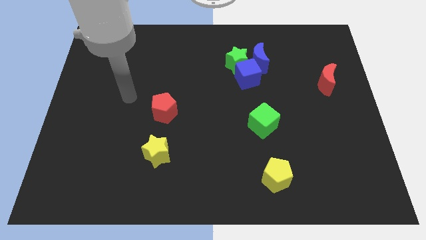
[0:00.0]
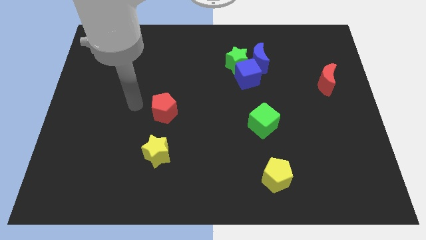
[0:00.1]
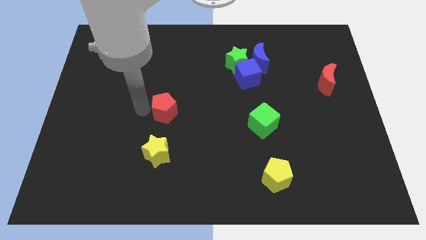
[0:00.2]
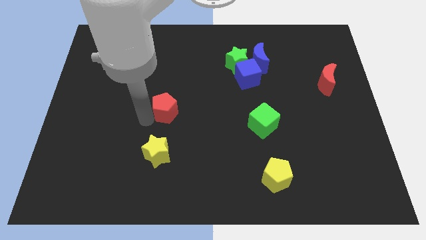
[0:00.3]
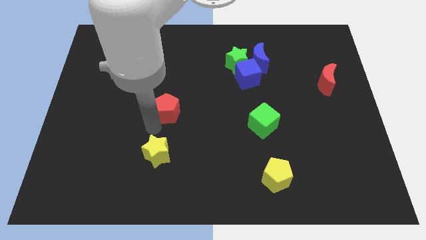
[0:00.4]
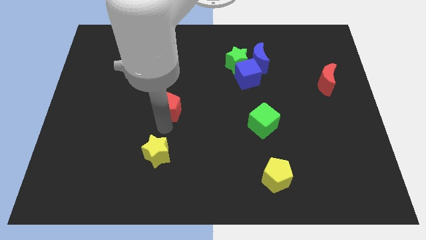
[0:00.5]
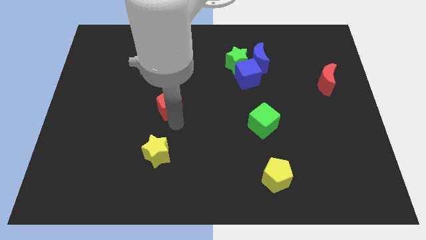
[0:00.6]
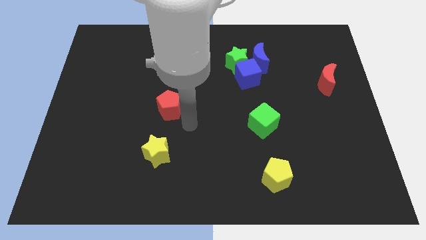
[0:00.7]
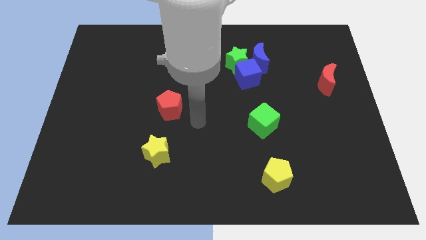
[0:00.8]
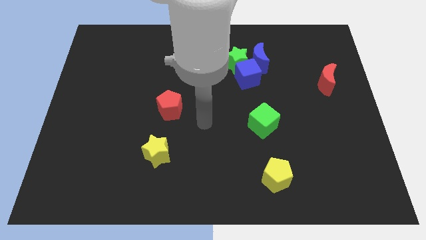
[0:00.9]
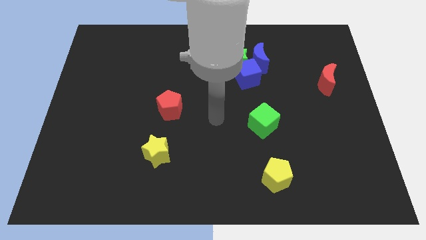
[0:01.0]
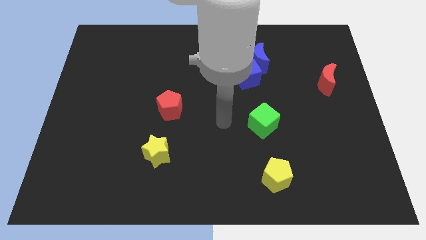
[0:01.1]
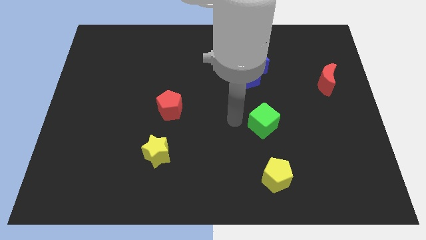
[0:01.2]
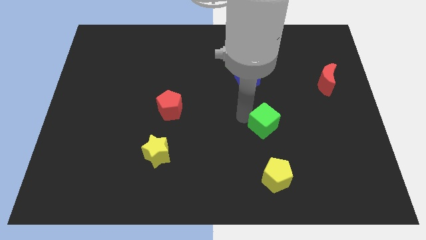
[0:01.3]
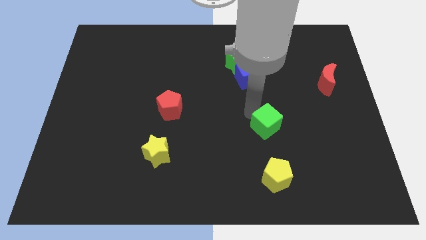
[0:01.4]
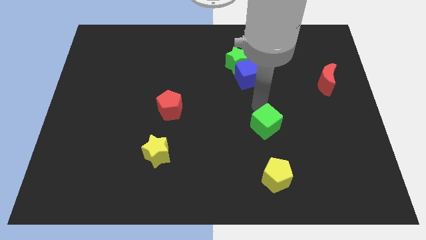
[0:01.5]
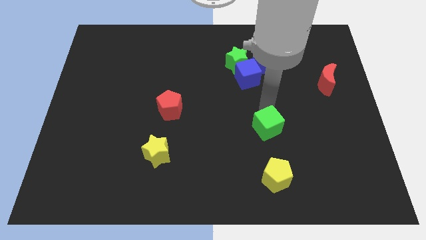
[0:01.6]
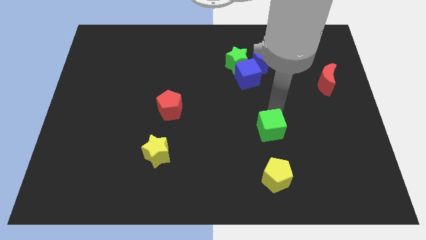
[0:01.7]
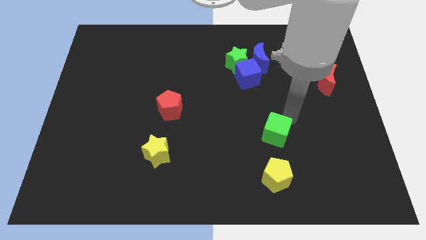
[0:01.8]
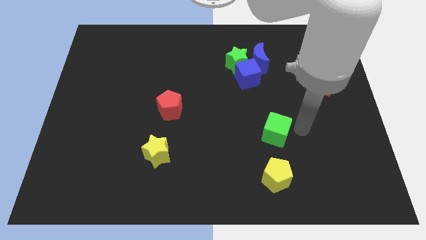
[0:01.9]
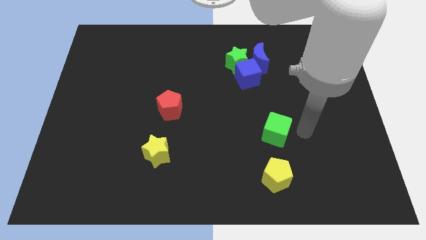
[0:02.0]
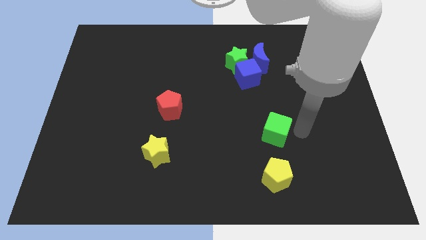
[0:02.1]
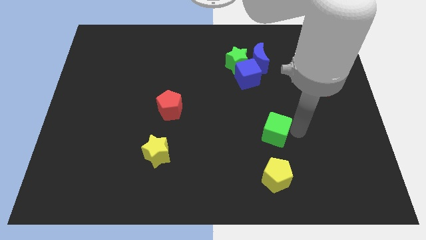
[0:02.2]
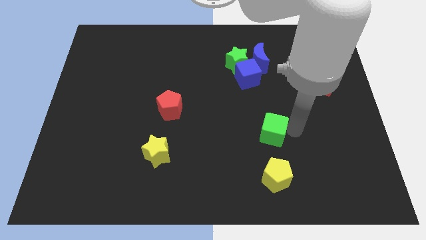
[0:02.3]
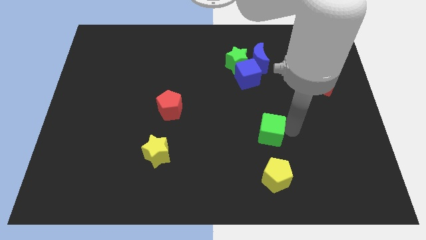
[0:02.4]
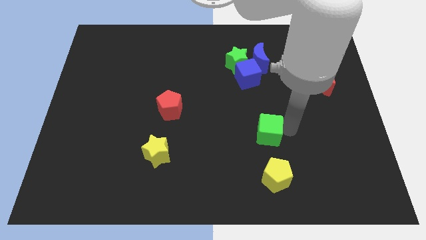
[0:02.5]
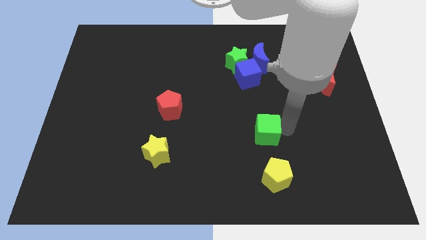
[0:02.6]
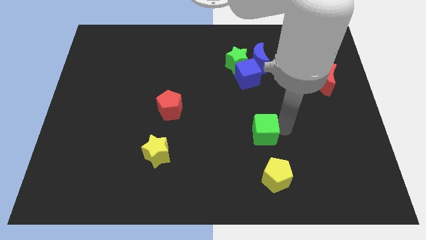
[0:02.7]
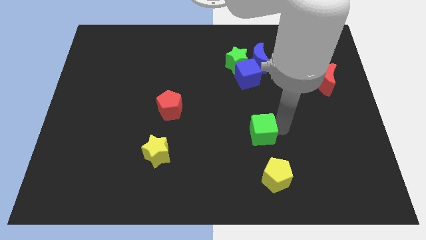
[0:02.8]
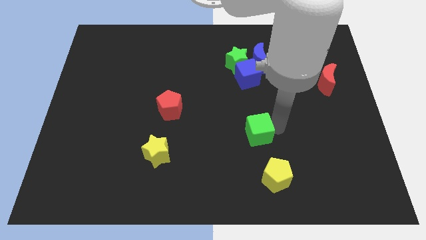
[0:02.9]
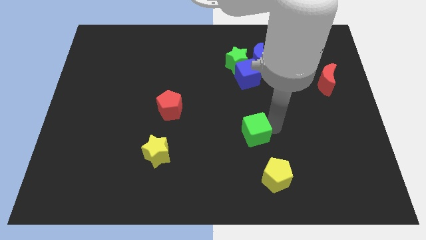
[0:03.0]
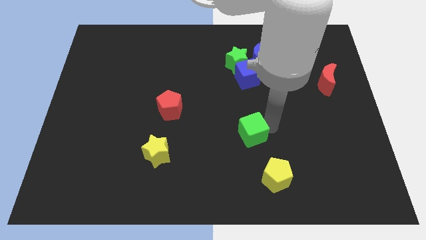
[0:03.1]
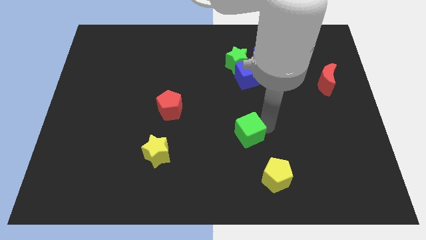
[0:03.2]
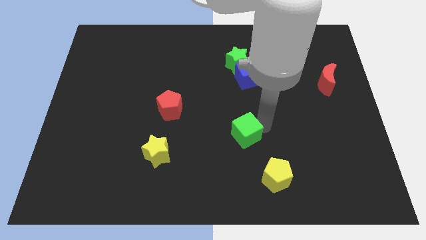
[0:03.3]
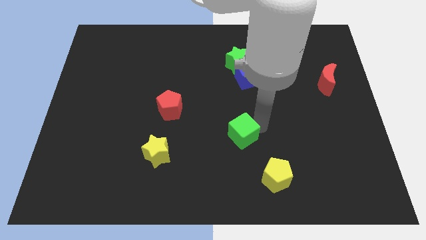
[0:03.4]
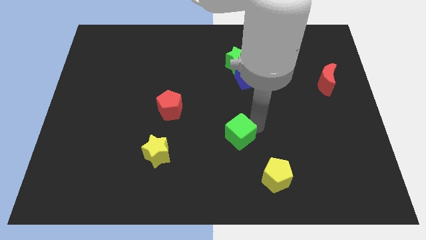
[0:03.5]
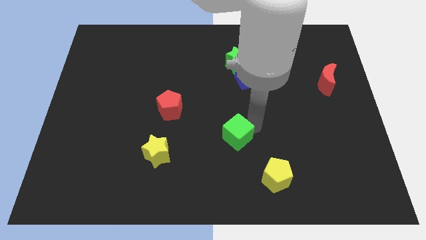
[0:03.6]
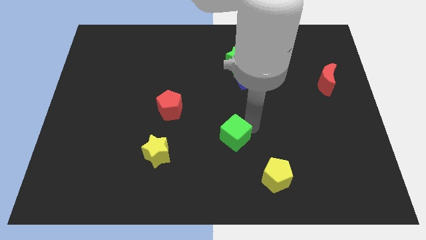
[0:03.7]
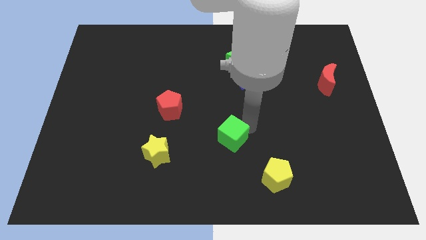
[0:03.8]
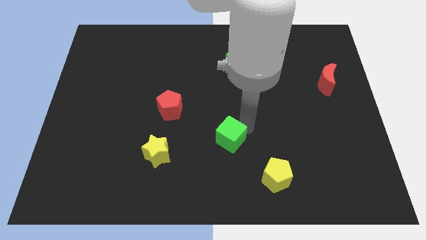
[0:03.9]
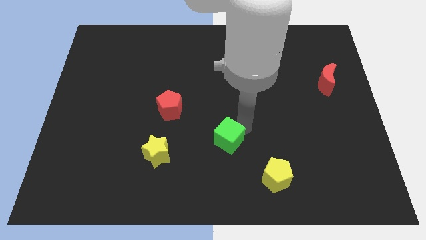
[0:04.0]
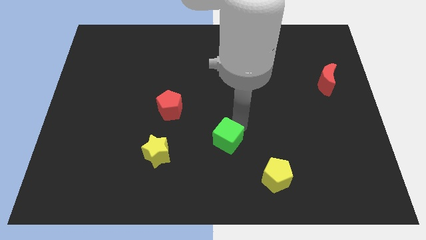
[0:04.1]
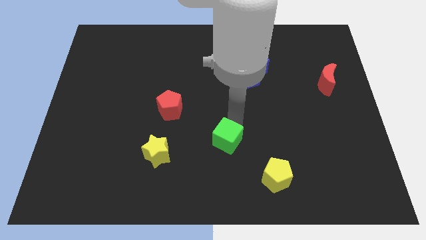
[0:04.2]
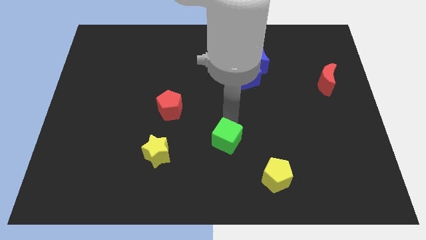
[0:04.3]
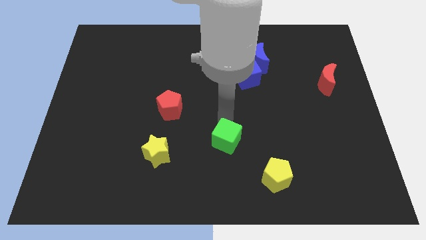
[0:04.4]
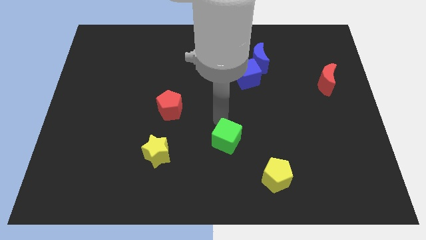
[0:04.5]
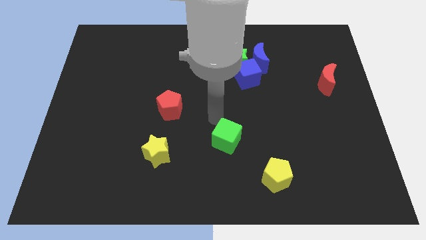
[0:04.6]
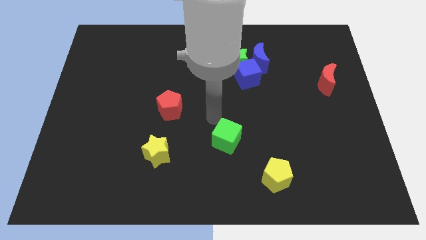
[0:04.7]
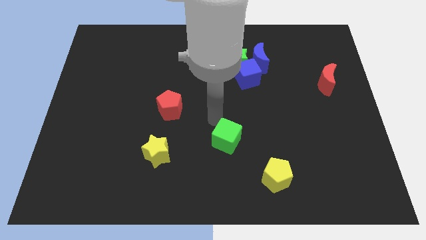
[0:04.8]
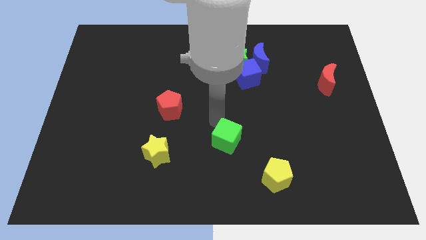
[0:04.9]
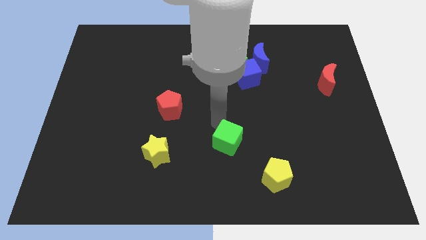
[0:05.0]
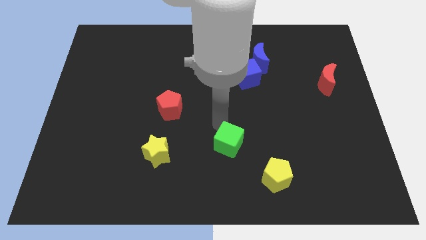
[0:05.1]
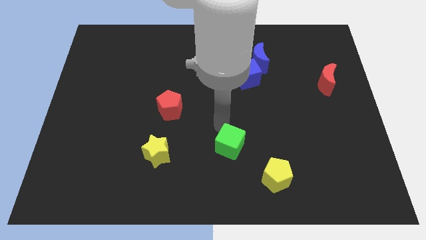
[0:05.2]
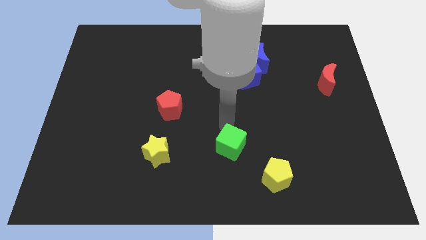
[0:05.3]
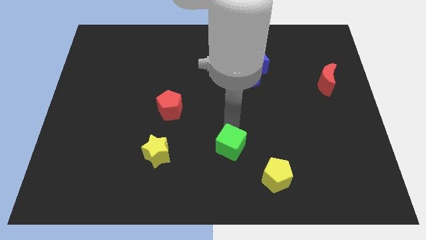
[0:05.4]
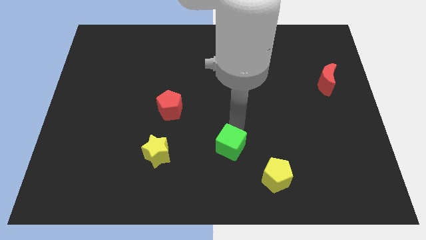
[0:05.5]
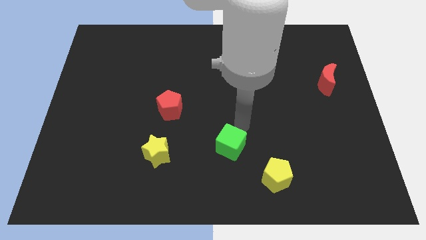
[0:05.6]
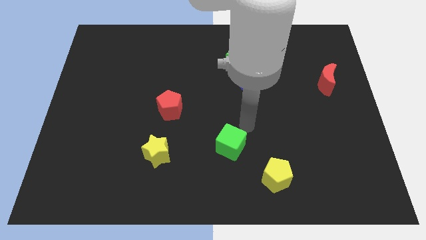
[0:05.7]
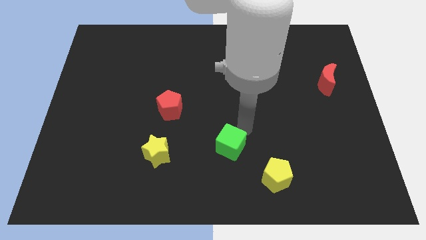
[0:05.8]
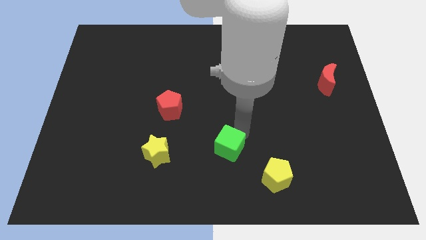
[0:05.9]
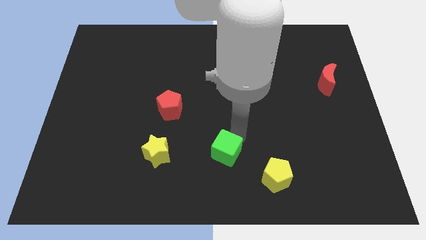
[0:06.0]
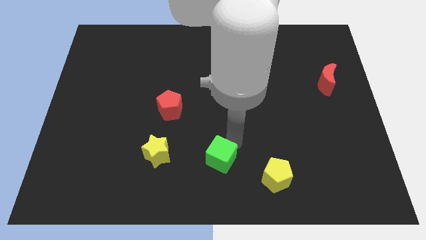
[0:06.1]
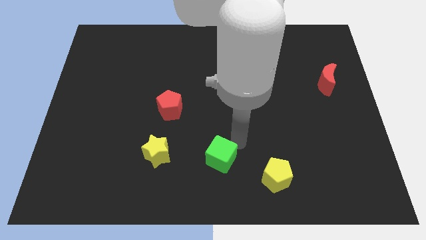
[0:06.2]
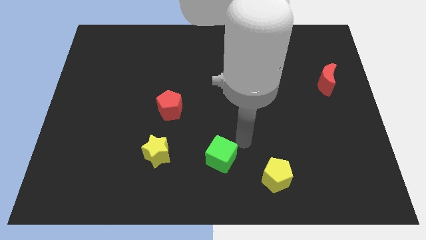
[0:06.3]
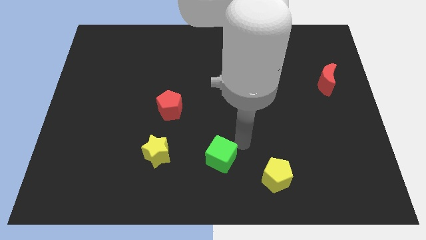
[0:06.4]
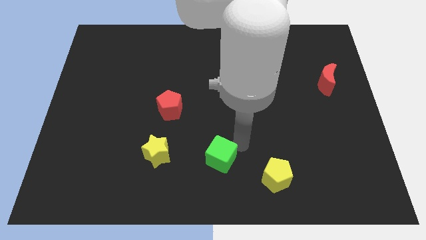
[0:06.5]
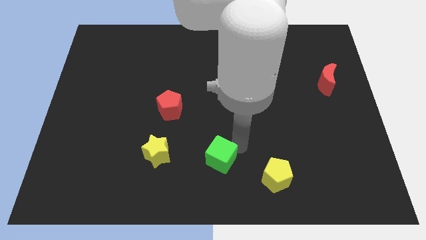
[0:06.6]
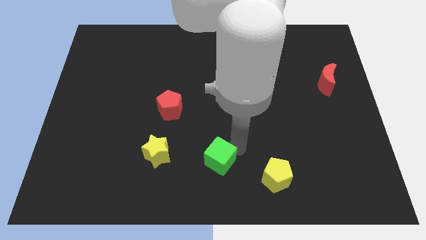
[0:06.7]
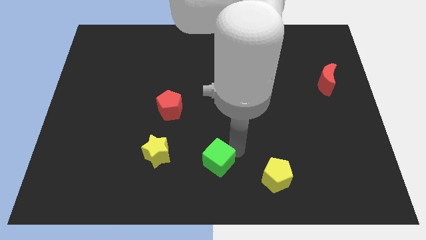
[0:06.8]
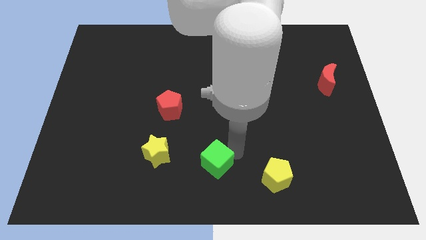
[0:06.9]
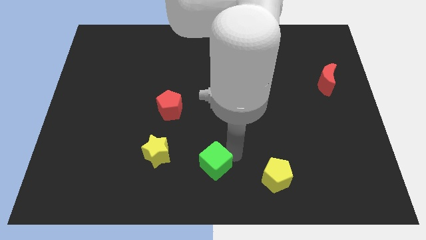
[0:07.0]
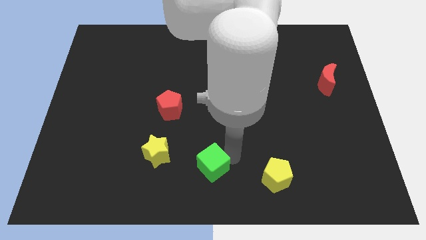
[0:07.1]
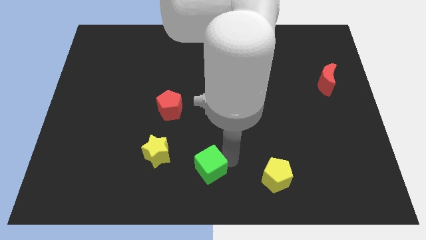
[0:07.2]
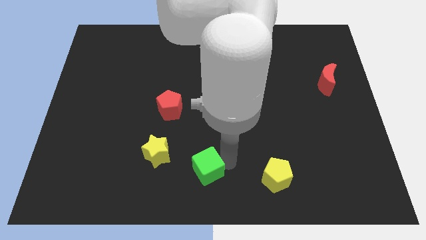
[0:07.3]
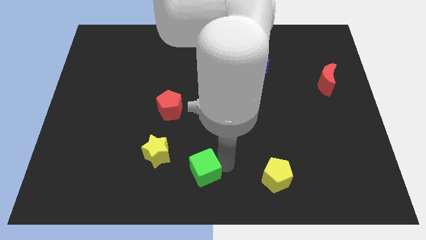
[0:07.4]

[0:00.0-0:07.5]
slide the green cube to the bottom right side of the yellow star

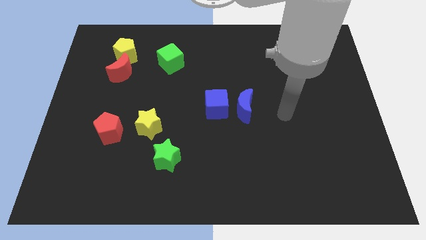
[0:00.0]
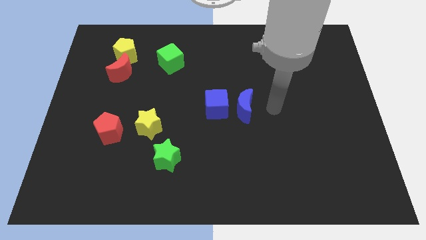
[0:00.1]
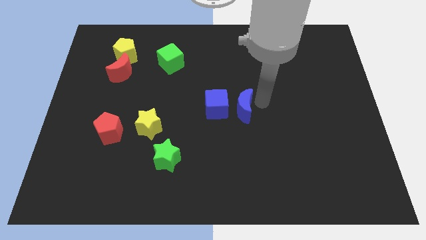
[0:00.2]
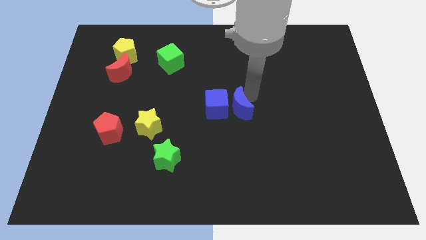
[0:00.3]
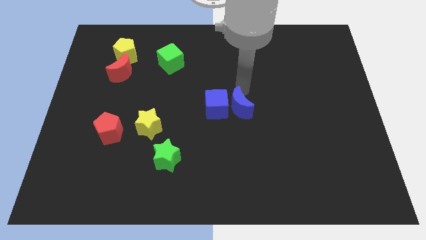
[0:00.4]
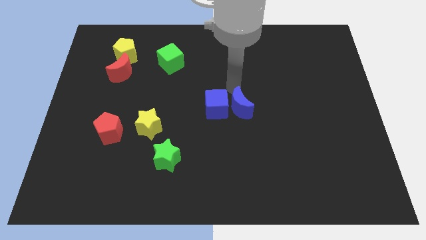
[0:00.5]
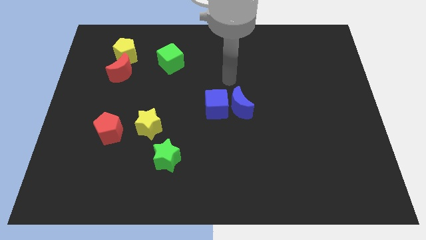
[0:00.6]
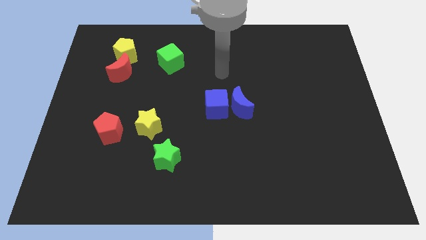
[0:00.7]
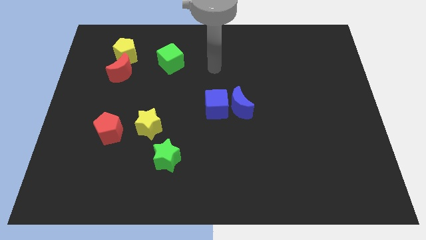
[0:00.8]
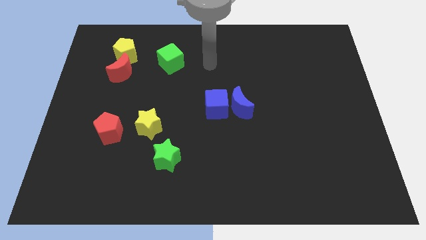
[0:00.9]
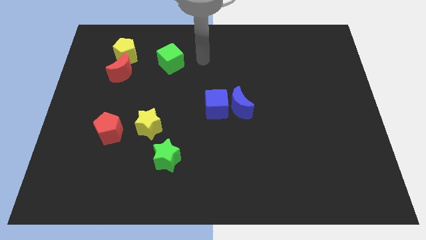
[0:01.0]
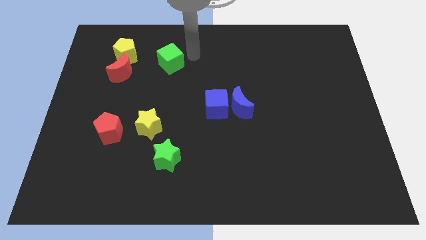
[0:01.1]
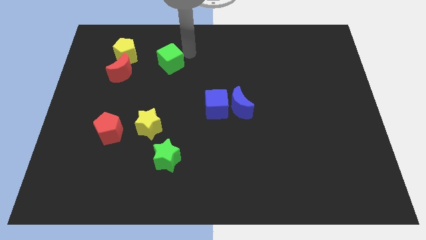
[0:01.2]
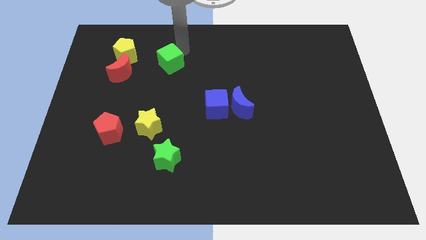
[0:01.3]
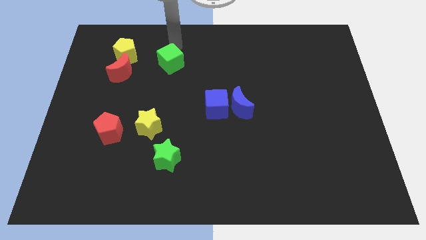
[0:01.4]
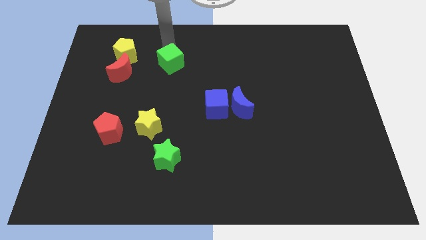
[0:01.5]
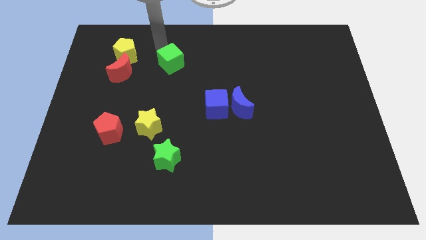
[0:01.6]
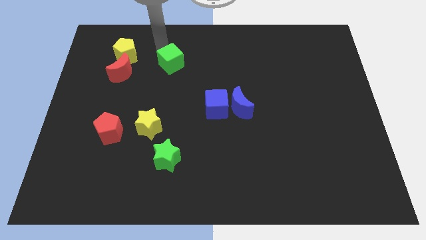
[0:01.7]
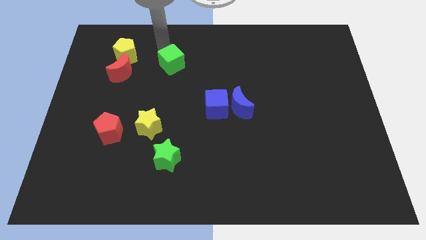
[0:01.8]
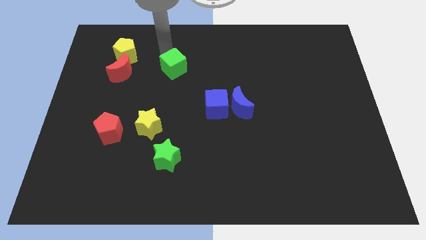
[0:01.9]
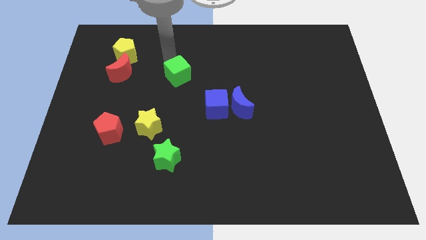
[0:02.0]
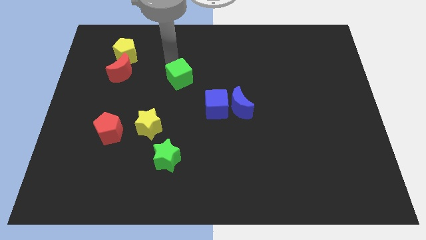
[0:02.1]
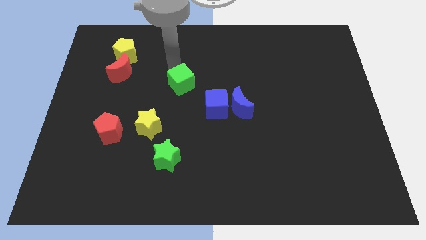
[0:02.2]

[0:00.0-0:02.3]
push the green cube diagonally up and to the left of the blue cube
